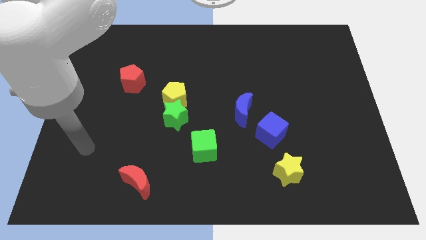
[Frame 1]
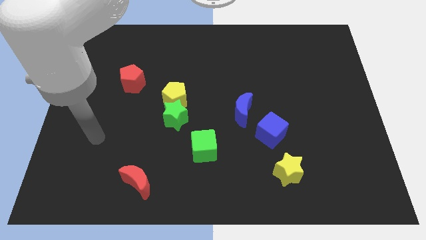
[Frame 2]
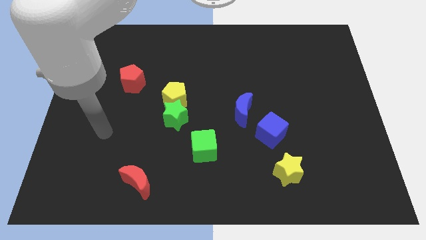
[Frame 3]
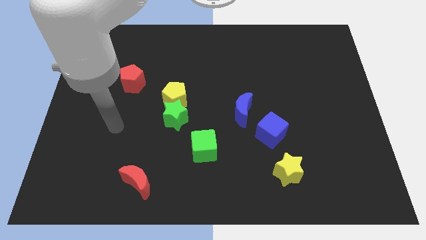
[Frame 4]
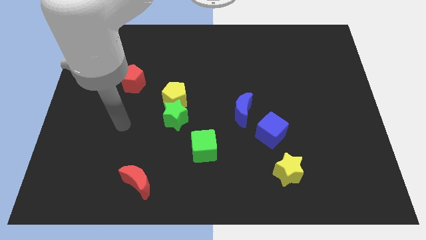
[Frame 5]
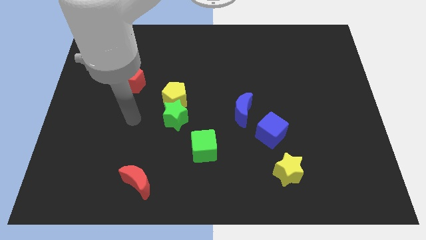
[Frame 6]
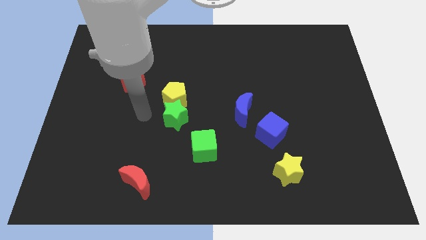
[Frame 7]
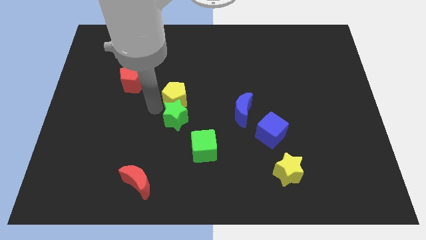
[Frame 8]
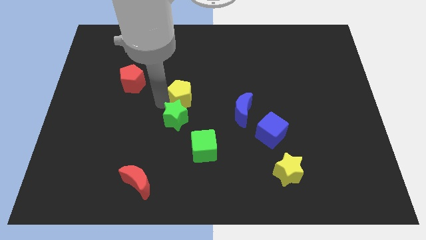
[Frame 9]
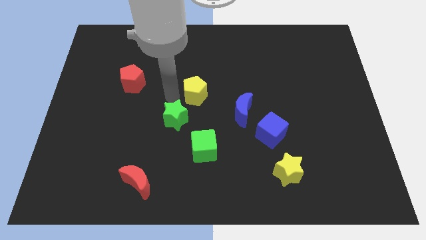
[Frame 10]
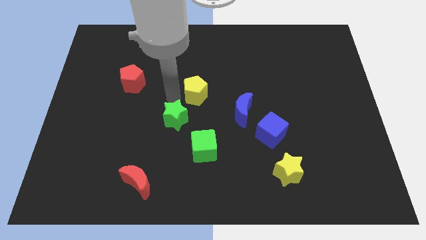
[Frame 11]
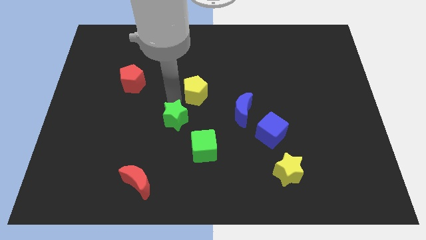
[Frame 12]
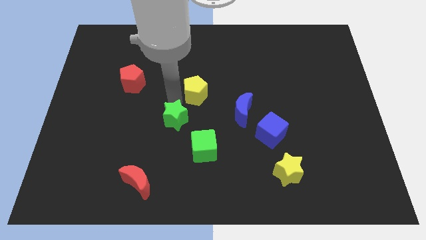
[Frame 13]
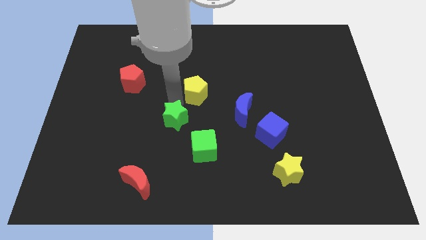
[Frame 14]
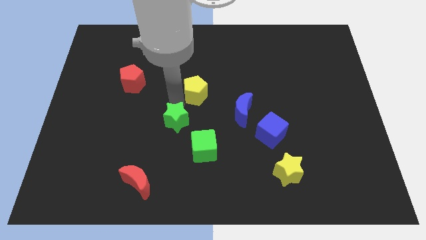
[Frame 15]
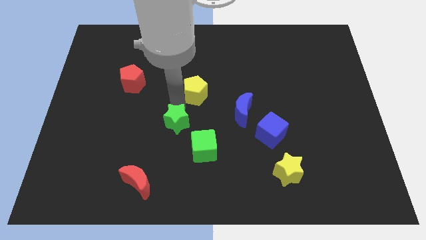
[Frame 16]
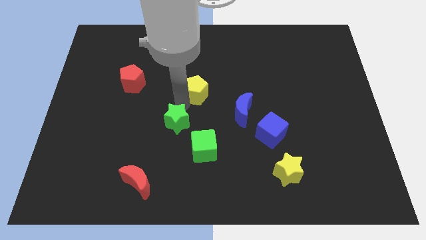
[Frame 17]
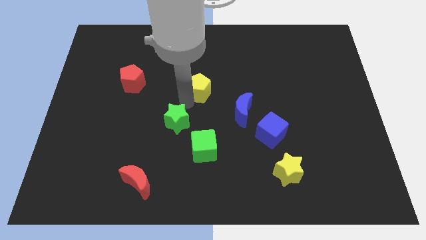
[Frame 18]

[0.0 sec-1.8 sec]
pull the green star apart from the yellow pentagon

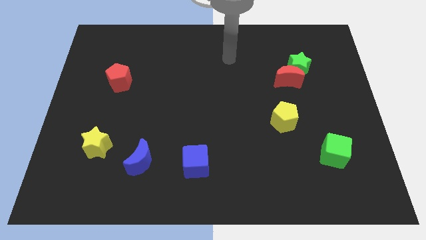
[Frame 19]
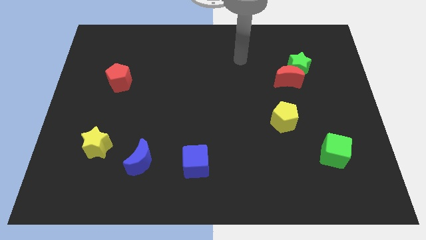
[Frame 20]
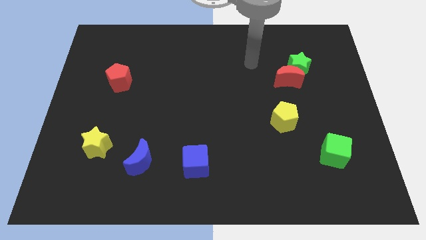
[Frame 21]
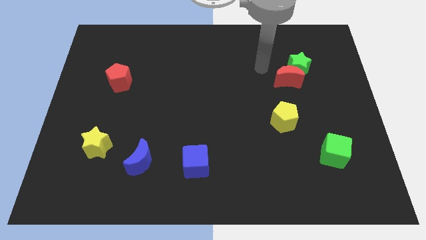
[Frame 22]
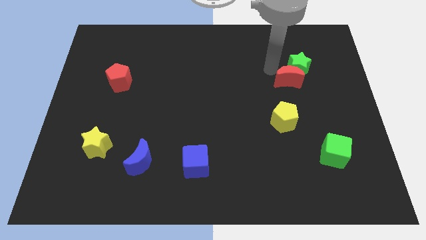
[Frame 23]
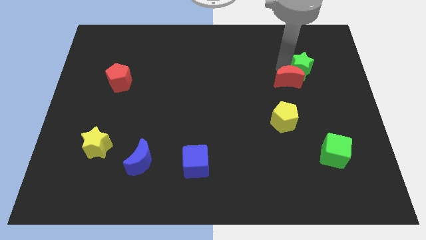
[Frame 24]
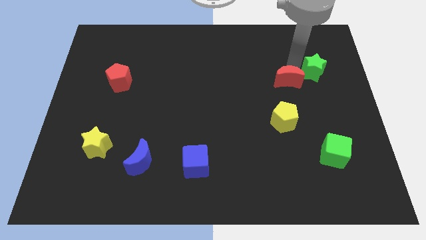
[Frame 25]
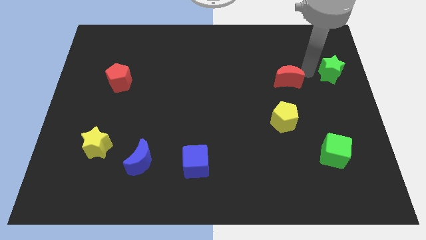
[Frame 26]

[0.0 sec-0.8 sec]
separate the red moon from the green star

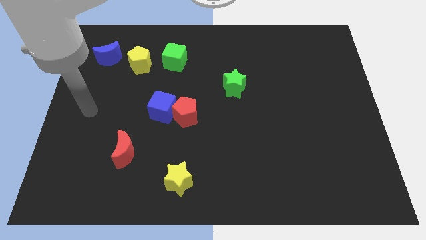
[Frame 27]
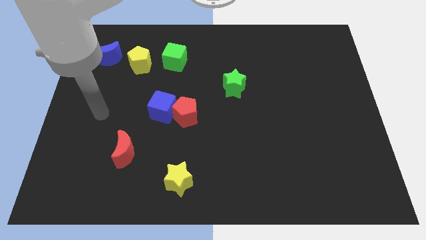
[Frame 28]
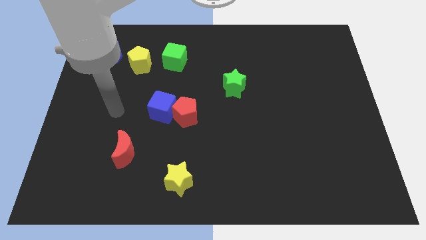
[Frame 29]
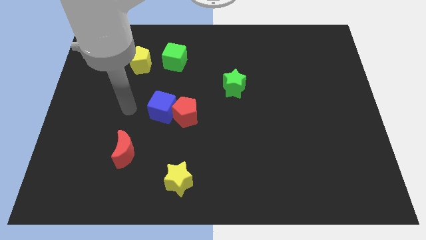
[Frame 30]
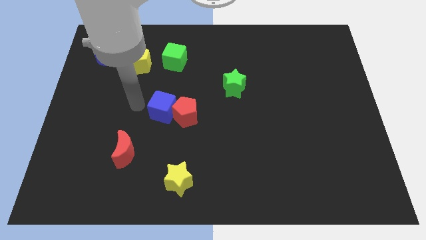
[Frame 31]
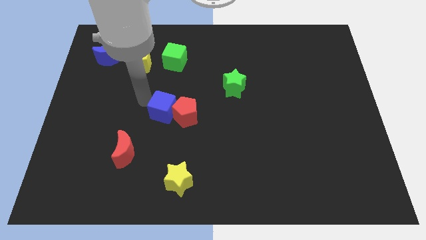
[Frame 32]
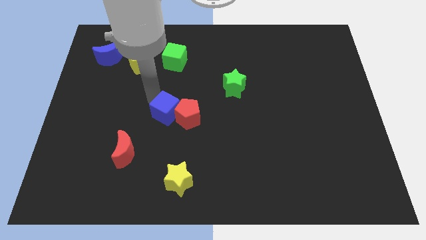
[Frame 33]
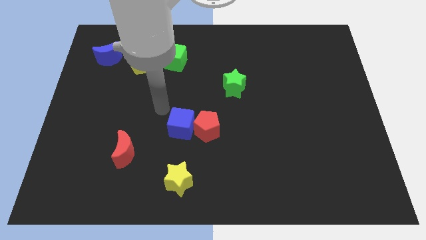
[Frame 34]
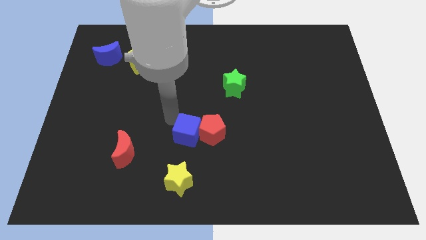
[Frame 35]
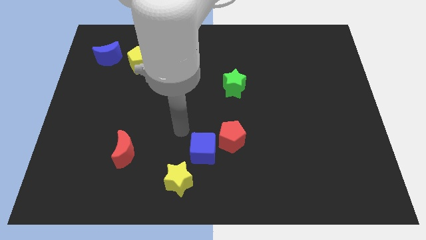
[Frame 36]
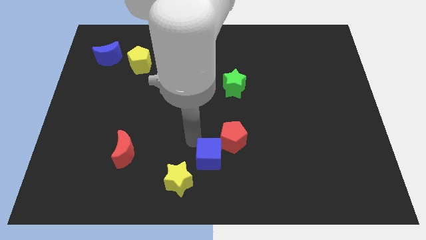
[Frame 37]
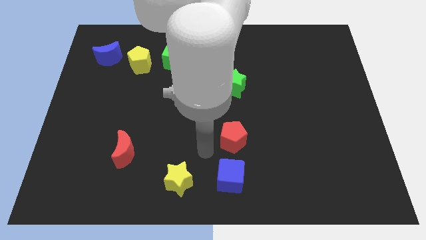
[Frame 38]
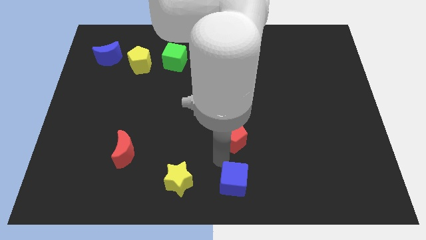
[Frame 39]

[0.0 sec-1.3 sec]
move the red pentagon away from the blue cube

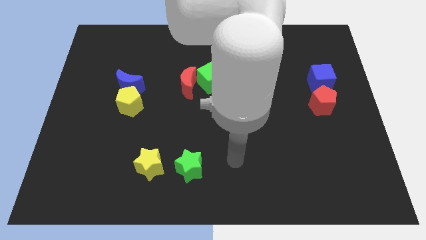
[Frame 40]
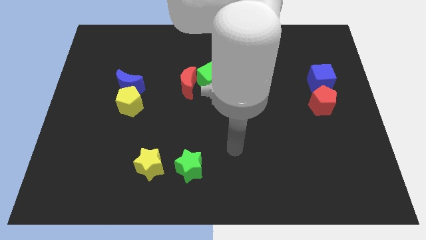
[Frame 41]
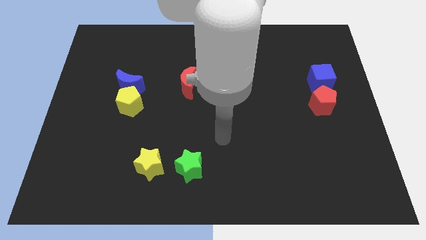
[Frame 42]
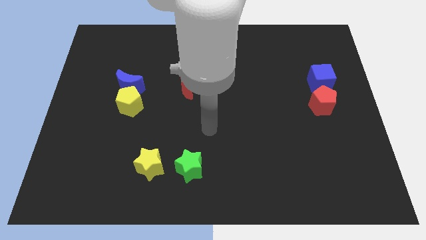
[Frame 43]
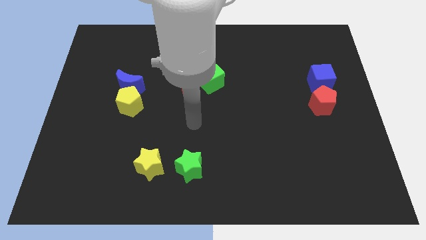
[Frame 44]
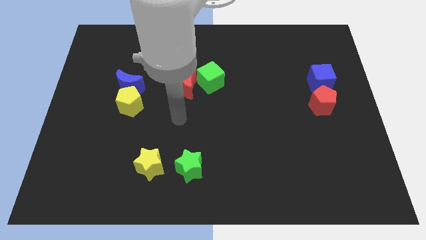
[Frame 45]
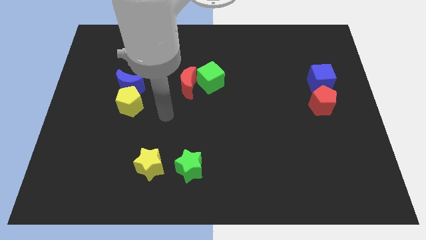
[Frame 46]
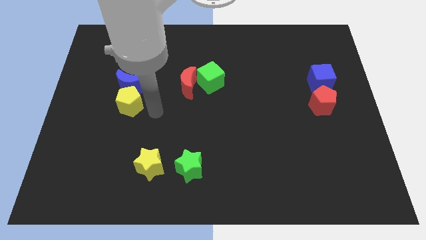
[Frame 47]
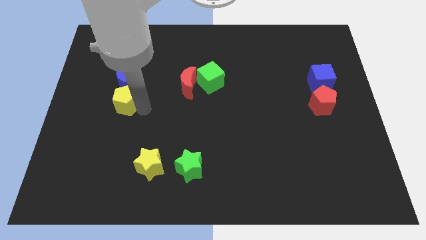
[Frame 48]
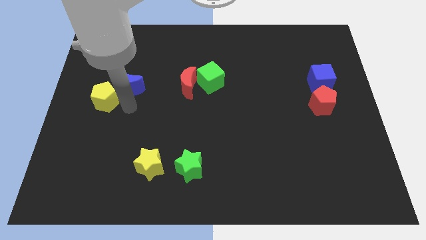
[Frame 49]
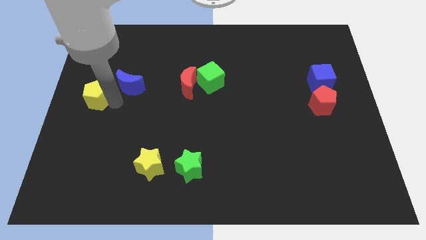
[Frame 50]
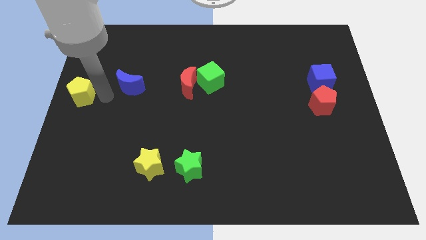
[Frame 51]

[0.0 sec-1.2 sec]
move the blue moon away from the yellow pentagon

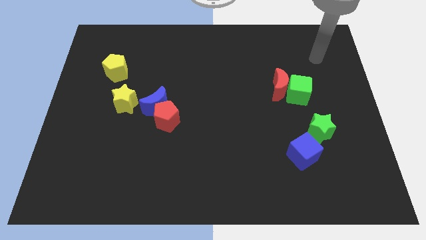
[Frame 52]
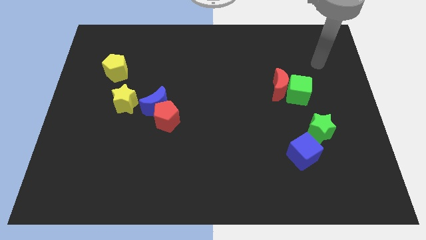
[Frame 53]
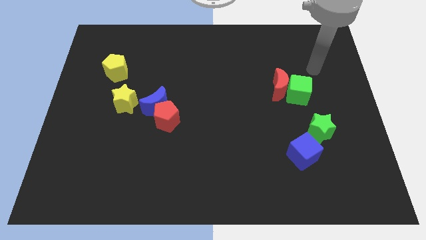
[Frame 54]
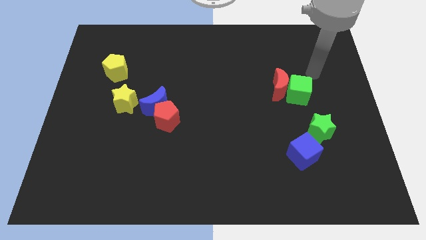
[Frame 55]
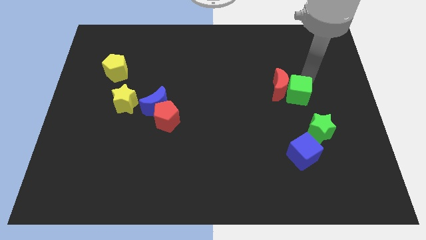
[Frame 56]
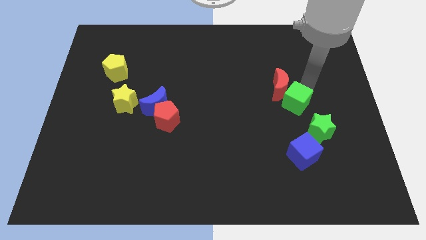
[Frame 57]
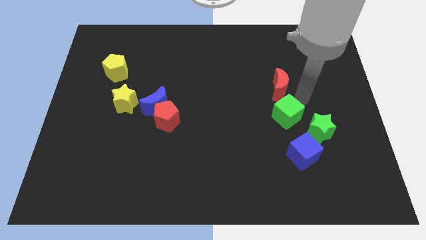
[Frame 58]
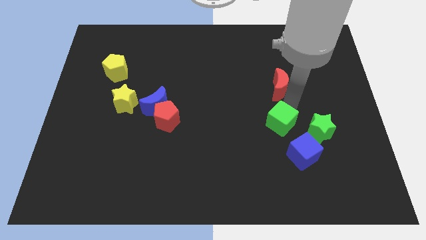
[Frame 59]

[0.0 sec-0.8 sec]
pull the red moon apart from the green cube

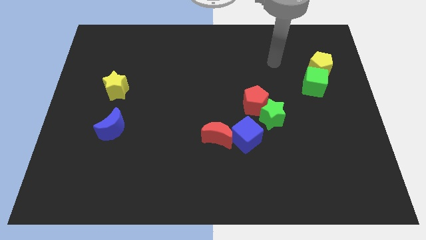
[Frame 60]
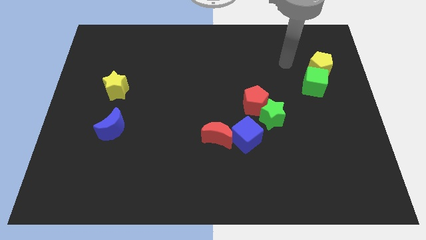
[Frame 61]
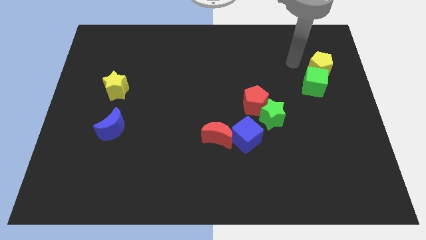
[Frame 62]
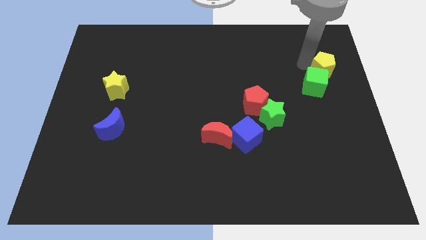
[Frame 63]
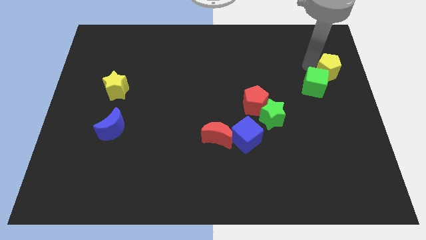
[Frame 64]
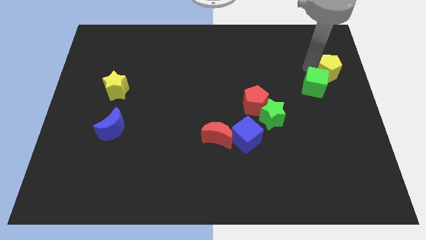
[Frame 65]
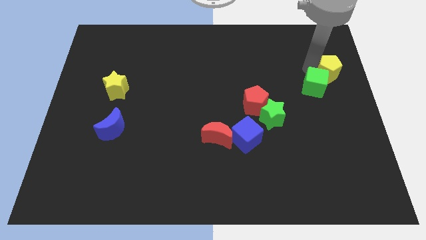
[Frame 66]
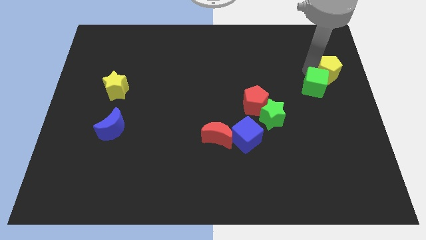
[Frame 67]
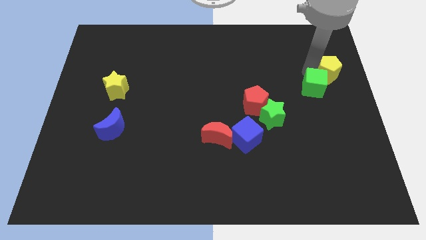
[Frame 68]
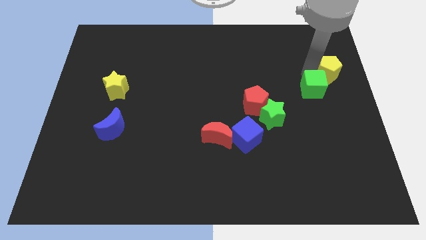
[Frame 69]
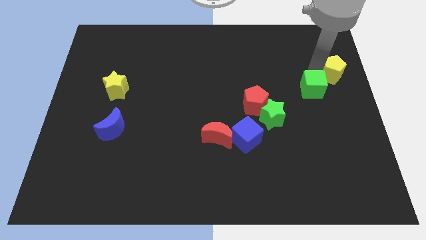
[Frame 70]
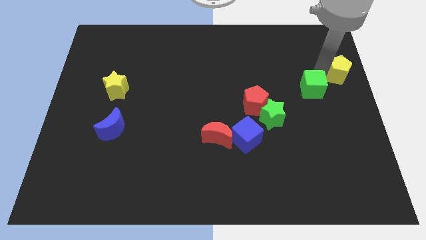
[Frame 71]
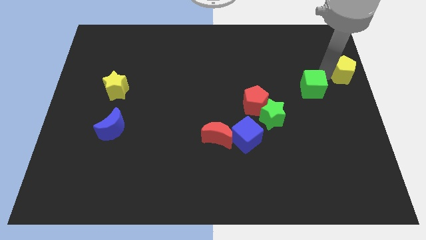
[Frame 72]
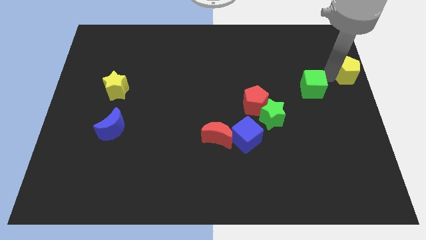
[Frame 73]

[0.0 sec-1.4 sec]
separate the green cube from the yellow pentagon

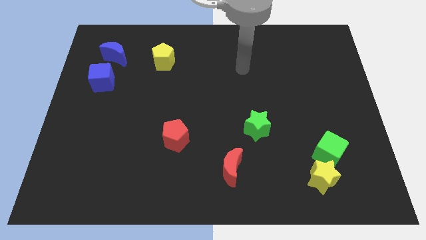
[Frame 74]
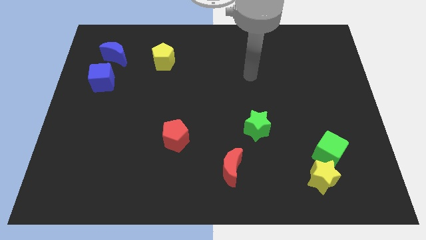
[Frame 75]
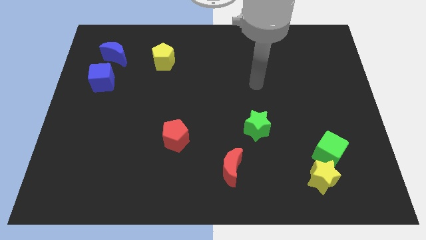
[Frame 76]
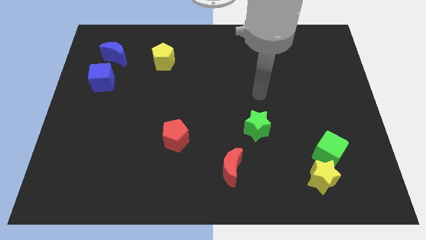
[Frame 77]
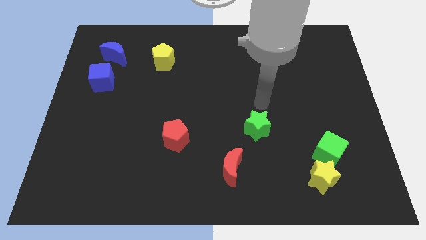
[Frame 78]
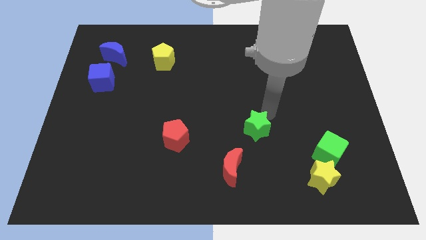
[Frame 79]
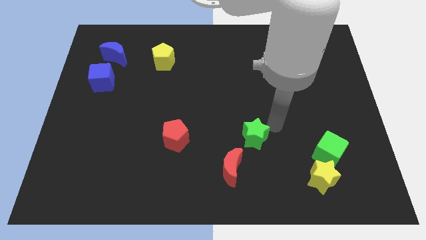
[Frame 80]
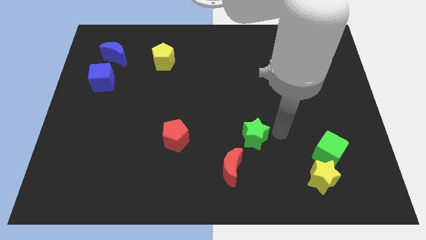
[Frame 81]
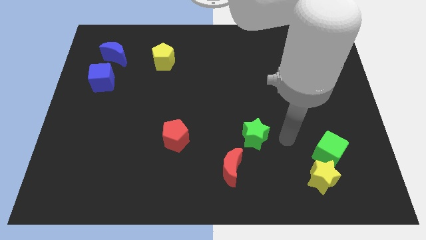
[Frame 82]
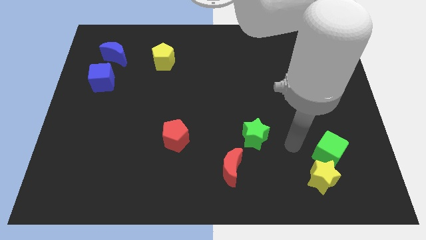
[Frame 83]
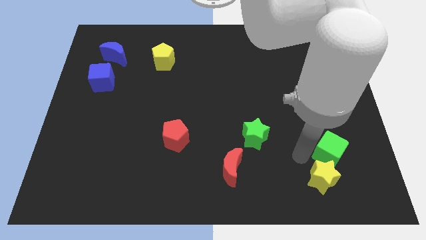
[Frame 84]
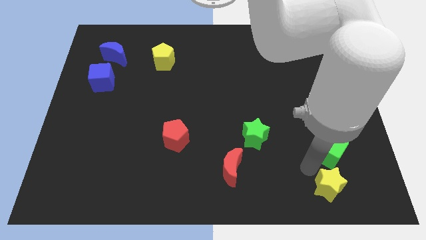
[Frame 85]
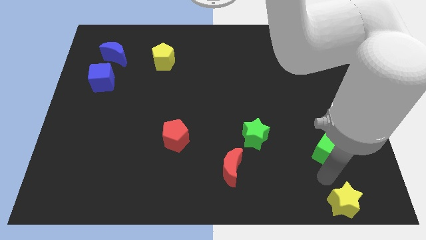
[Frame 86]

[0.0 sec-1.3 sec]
separate the green cube from the yellow star

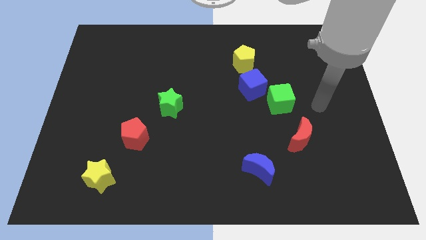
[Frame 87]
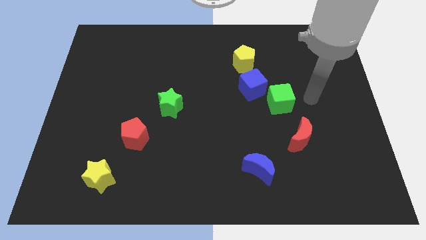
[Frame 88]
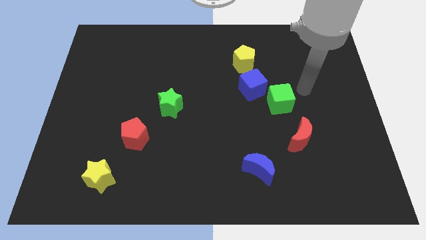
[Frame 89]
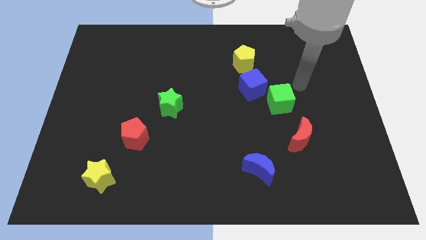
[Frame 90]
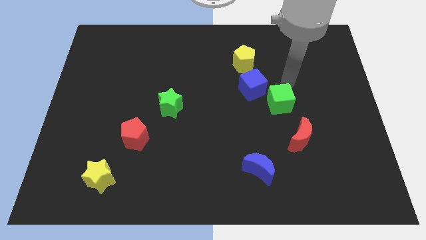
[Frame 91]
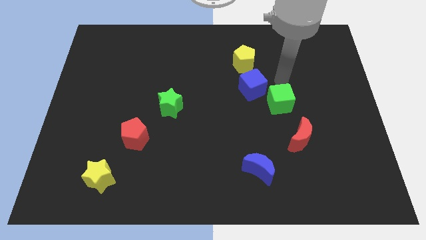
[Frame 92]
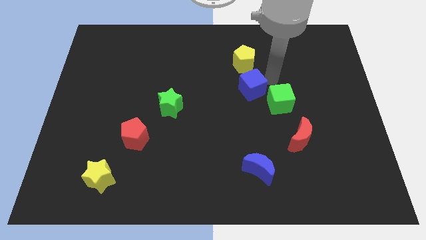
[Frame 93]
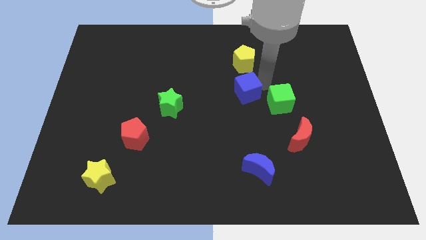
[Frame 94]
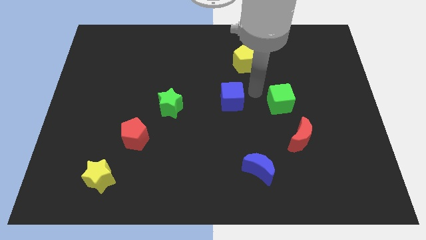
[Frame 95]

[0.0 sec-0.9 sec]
separate the green cube from the blue cube
